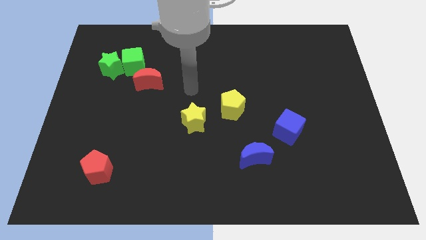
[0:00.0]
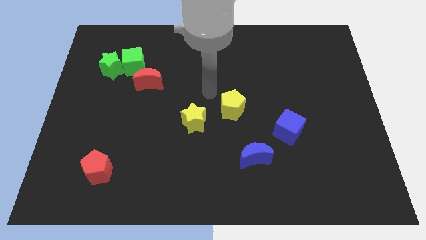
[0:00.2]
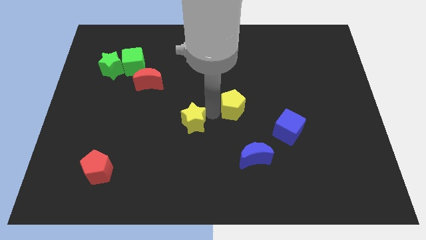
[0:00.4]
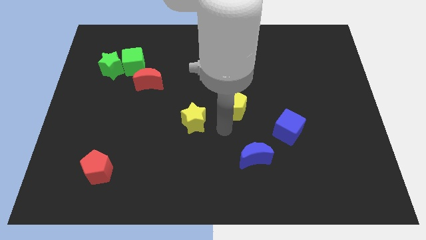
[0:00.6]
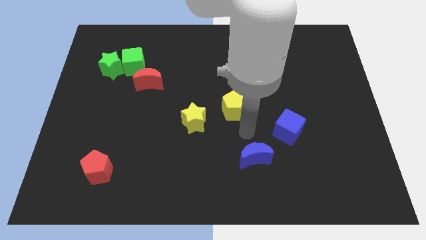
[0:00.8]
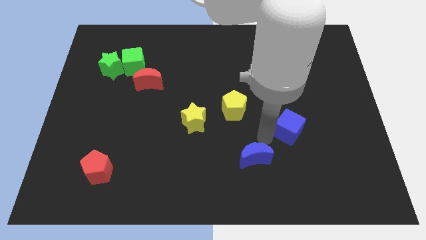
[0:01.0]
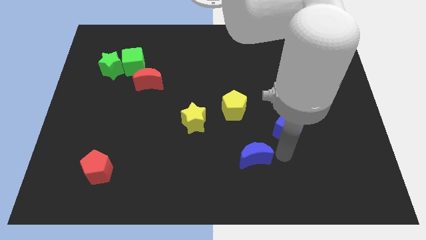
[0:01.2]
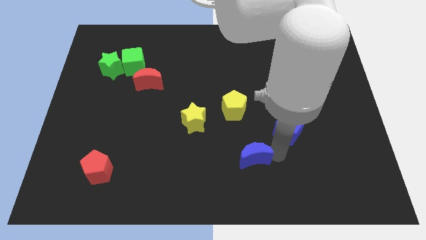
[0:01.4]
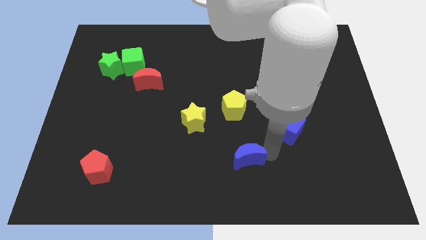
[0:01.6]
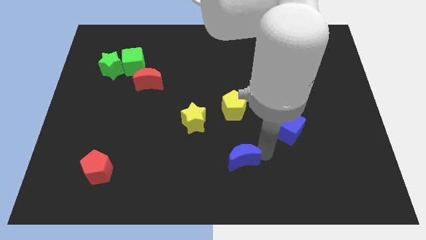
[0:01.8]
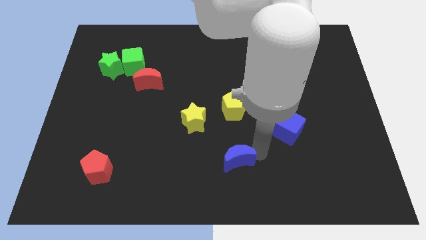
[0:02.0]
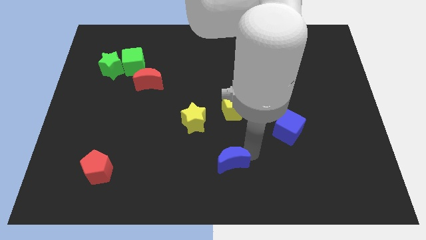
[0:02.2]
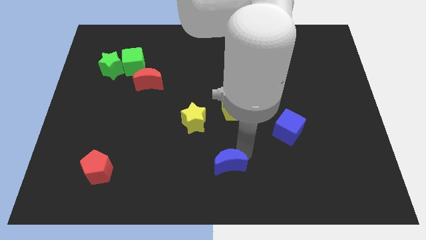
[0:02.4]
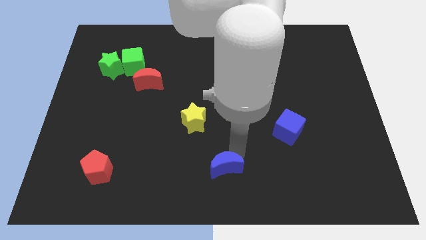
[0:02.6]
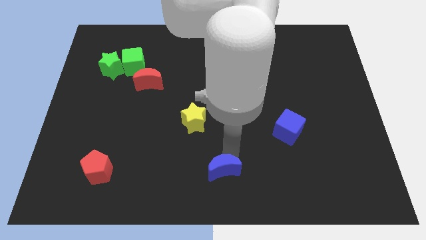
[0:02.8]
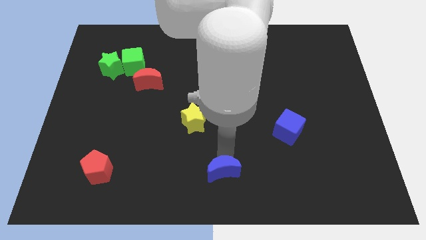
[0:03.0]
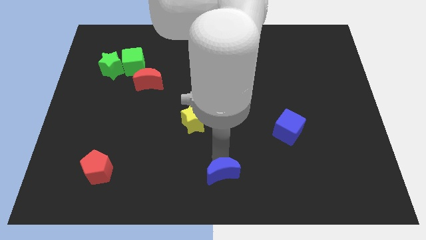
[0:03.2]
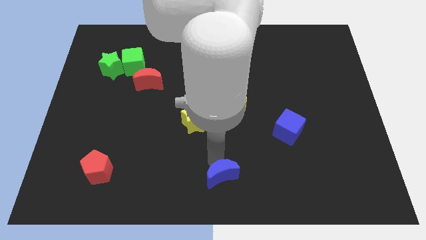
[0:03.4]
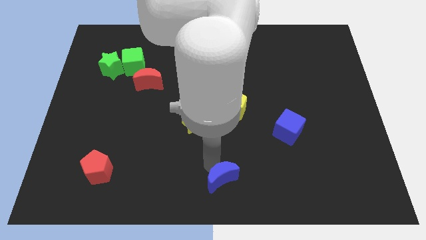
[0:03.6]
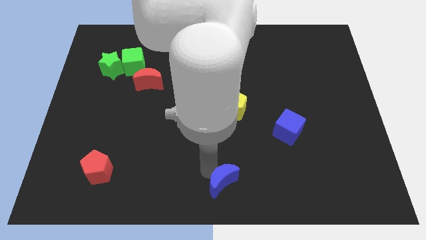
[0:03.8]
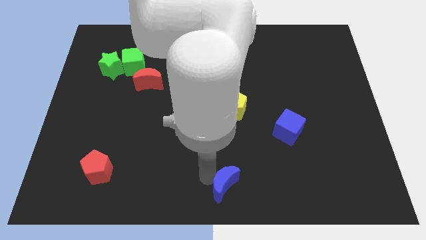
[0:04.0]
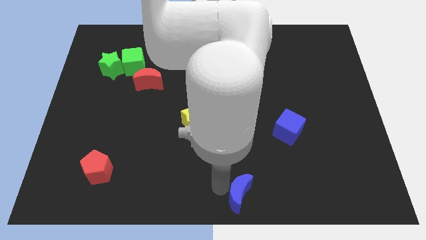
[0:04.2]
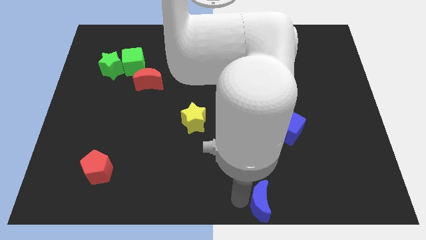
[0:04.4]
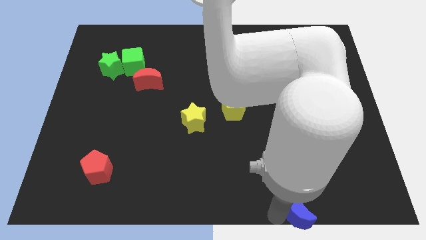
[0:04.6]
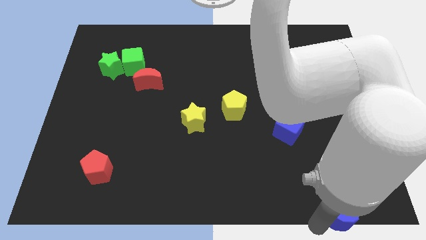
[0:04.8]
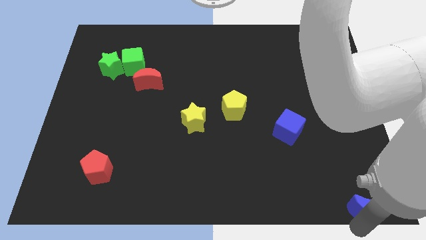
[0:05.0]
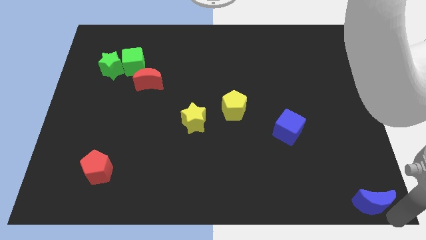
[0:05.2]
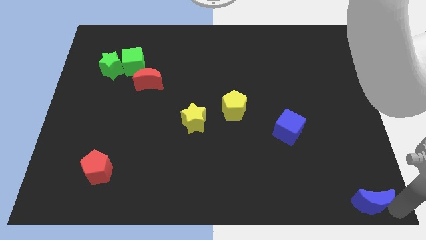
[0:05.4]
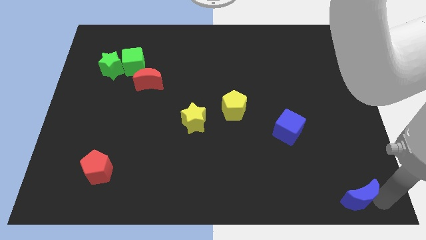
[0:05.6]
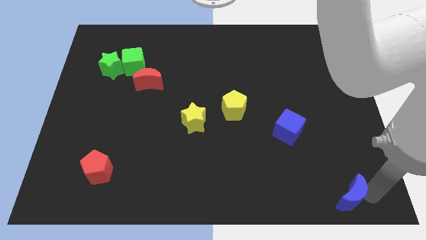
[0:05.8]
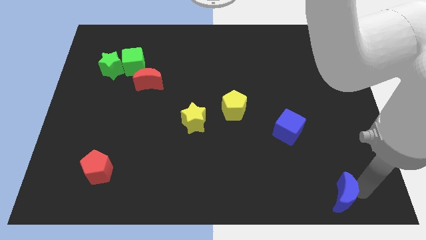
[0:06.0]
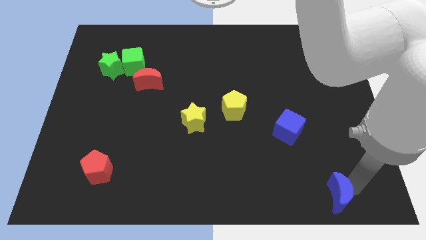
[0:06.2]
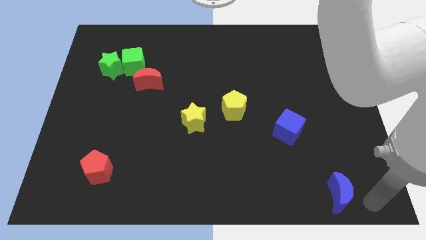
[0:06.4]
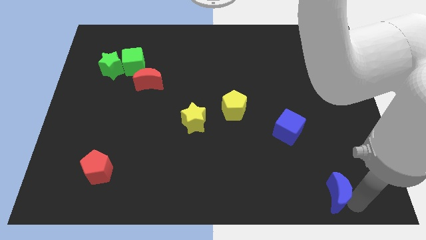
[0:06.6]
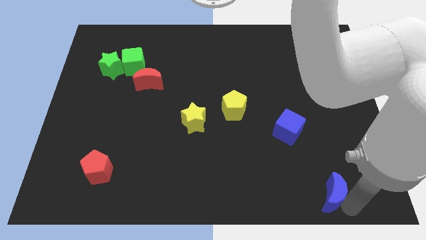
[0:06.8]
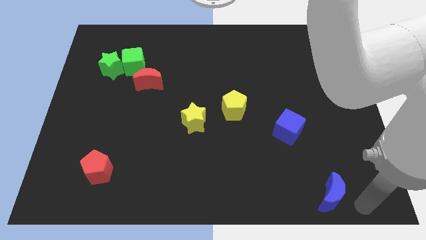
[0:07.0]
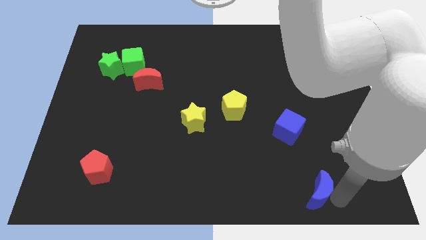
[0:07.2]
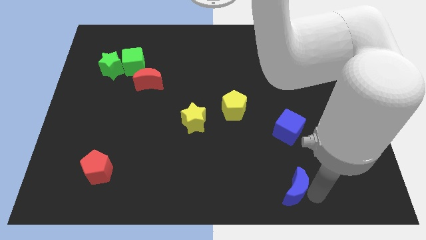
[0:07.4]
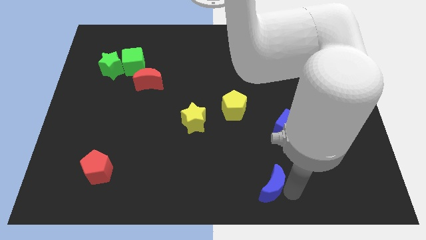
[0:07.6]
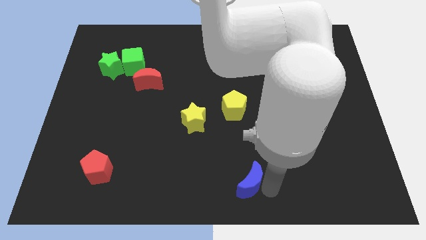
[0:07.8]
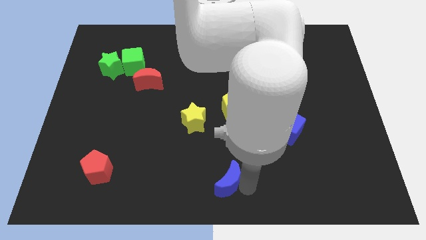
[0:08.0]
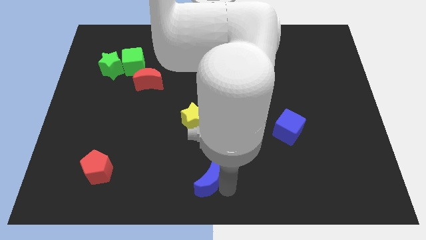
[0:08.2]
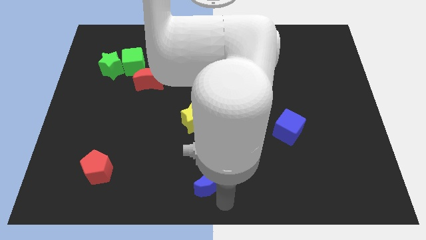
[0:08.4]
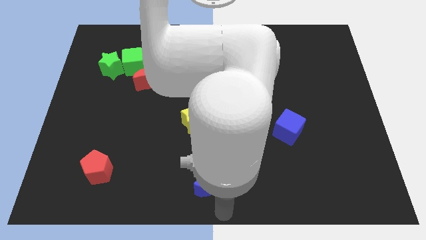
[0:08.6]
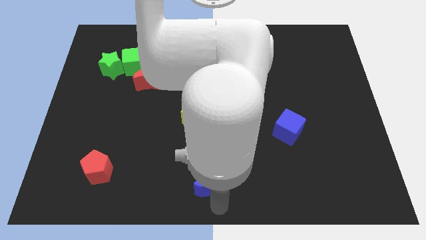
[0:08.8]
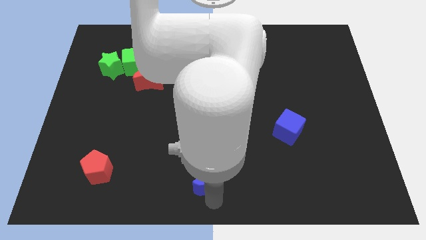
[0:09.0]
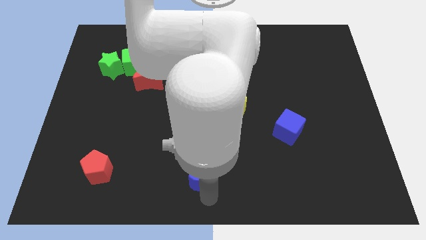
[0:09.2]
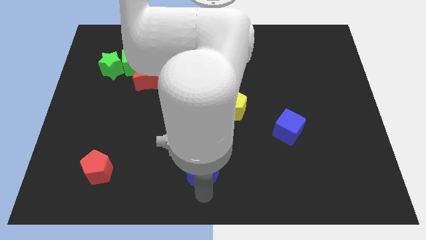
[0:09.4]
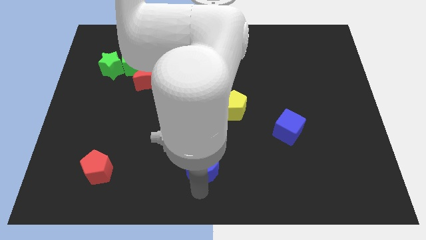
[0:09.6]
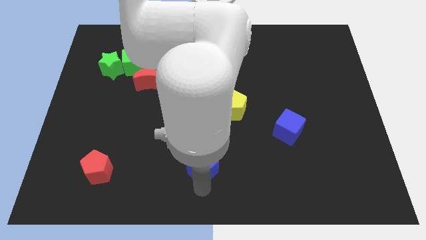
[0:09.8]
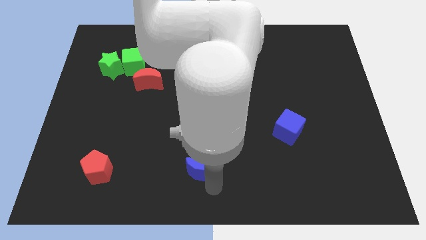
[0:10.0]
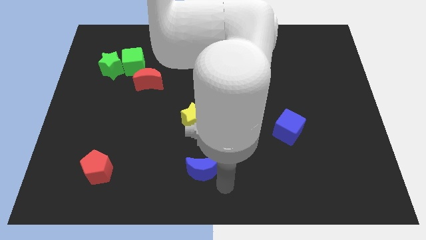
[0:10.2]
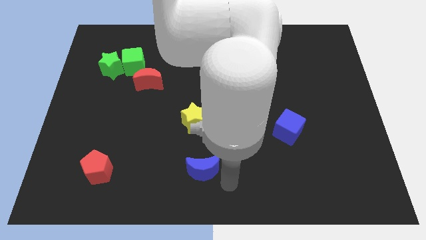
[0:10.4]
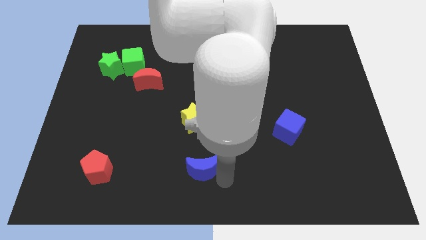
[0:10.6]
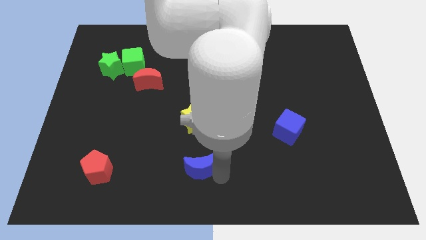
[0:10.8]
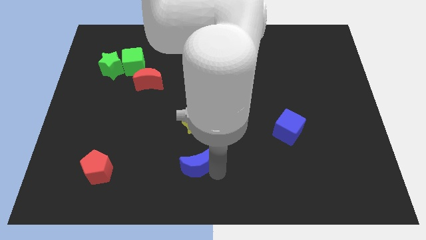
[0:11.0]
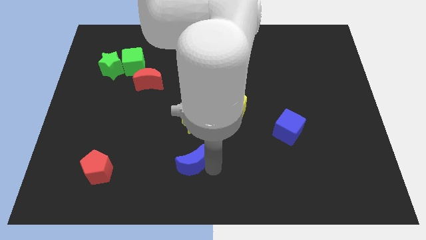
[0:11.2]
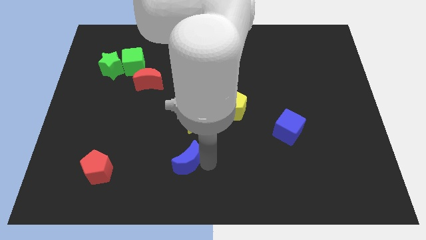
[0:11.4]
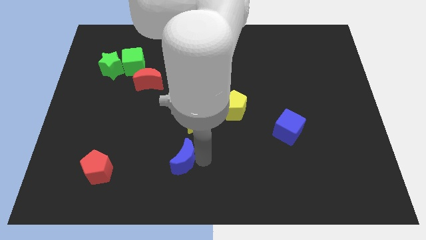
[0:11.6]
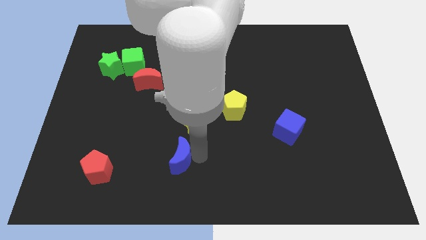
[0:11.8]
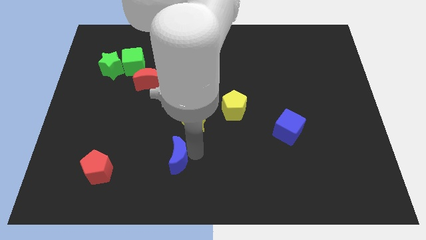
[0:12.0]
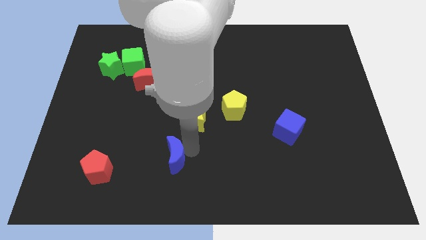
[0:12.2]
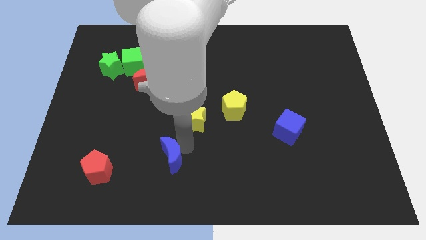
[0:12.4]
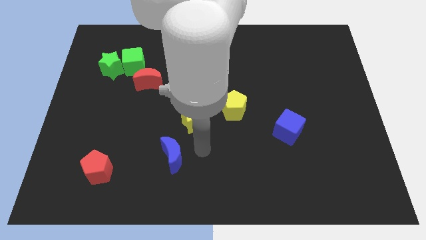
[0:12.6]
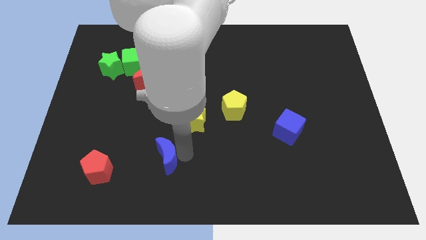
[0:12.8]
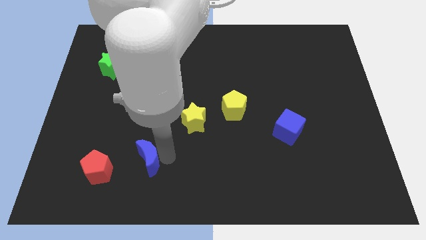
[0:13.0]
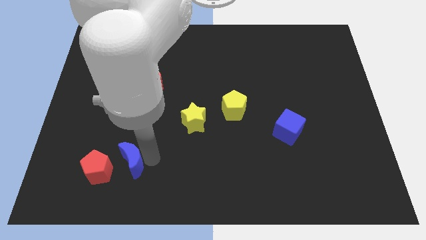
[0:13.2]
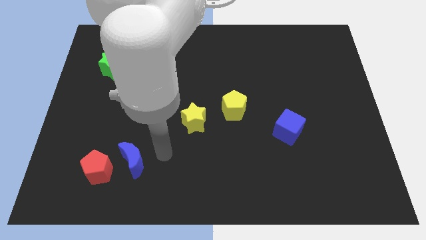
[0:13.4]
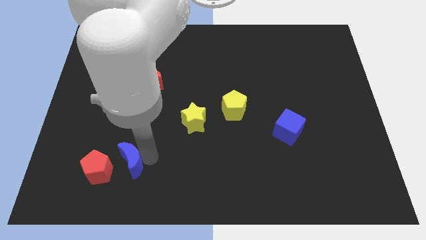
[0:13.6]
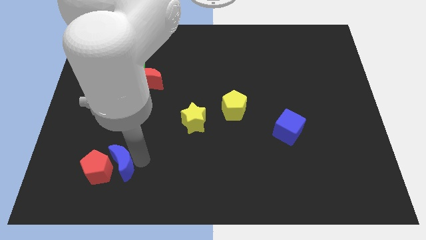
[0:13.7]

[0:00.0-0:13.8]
push the blue moon towards the red pentagon

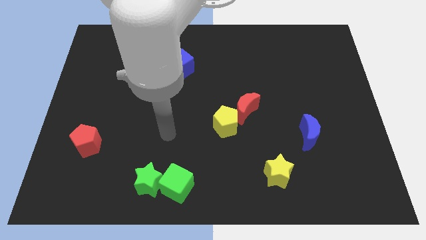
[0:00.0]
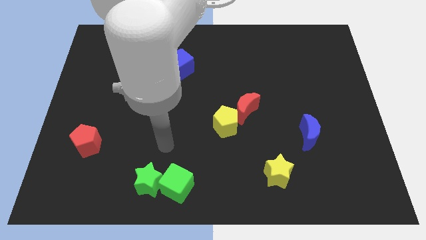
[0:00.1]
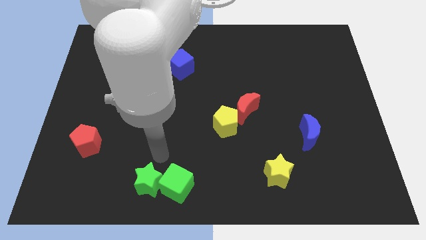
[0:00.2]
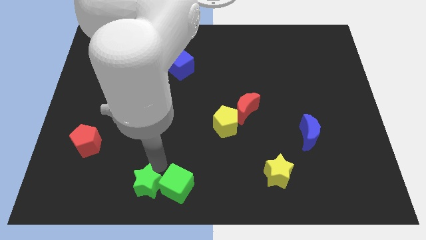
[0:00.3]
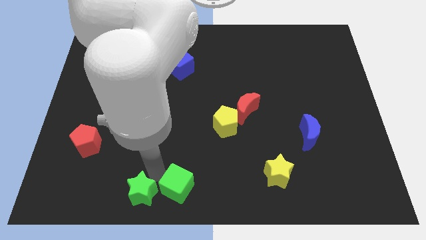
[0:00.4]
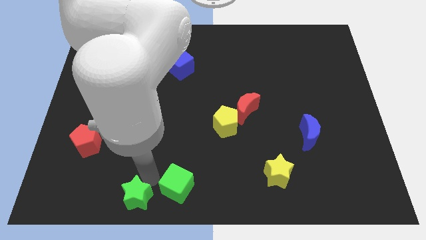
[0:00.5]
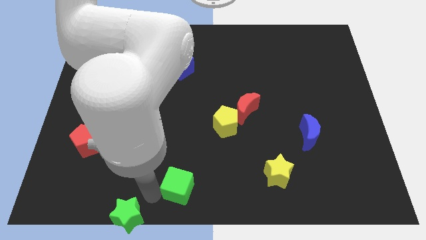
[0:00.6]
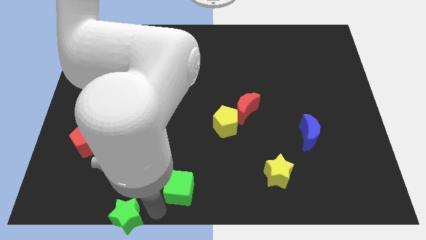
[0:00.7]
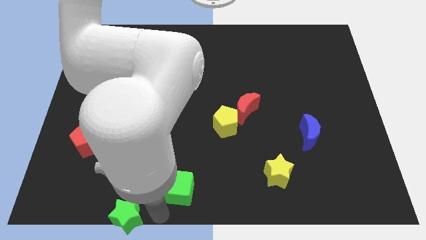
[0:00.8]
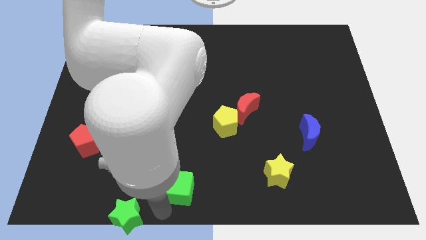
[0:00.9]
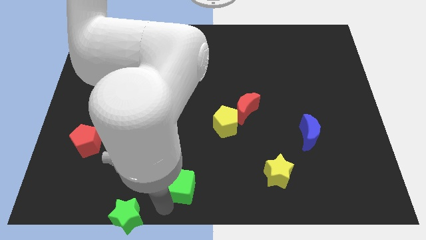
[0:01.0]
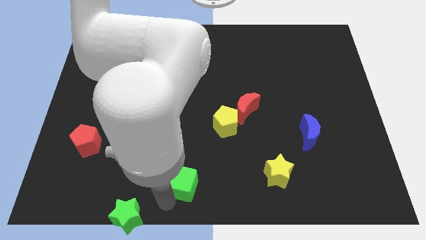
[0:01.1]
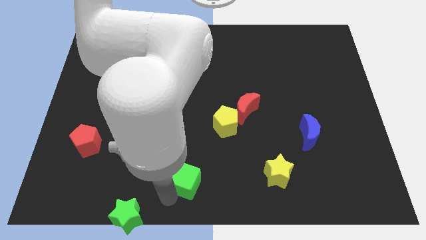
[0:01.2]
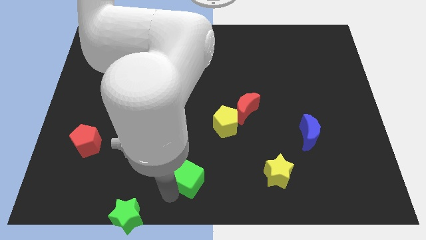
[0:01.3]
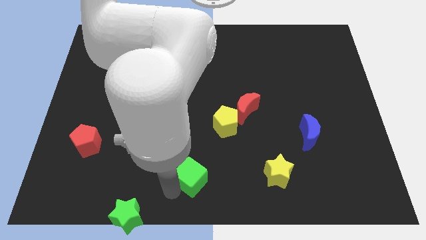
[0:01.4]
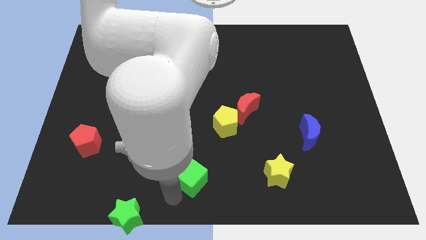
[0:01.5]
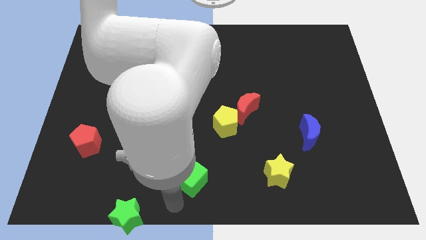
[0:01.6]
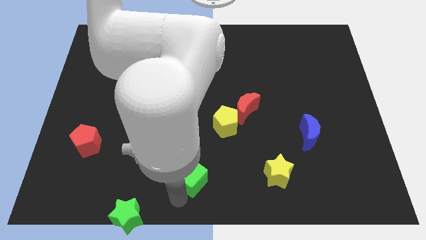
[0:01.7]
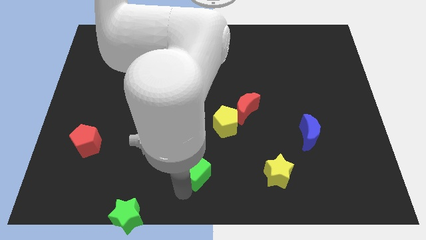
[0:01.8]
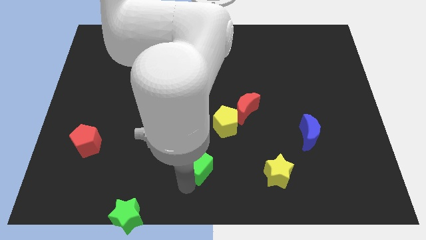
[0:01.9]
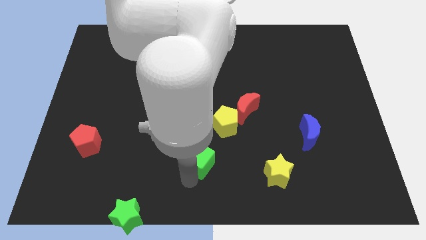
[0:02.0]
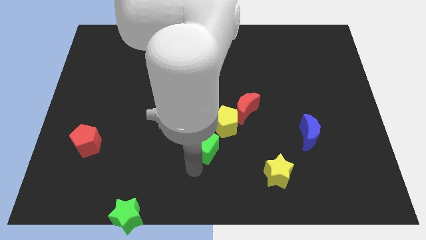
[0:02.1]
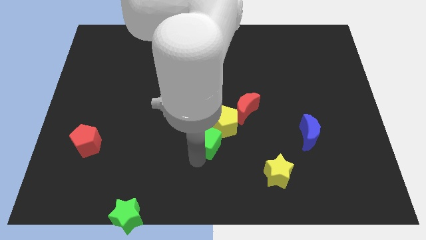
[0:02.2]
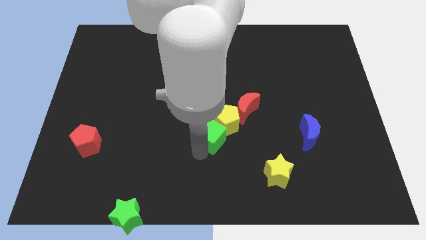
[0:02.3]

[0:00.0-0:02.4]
slide the green cube close to the yellow pentagon
